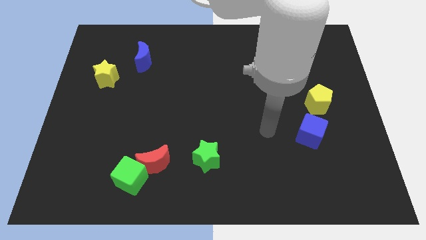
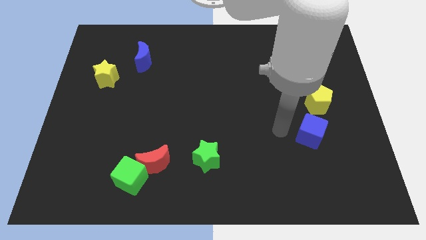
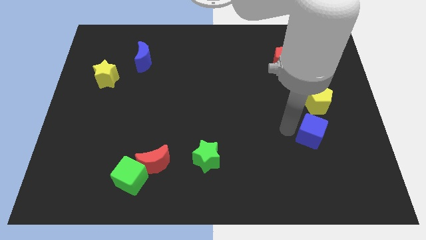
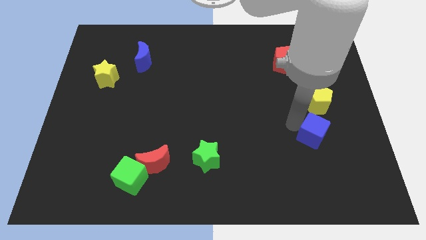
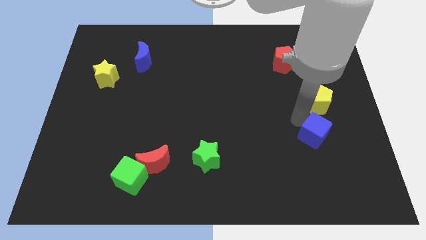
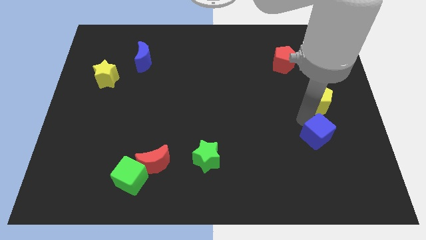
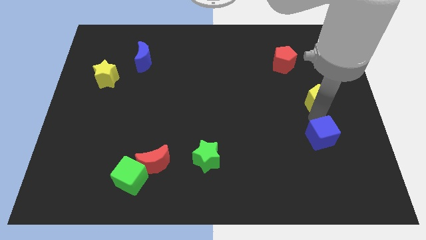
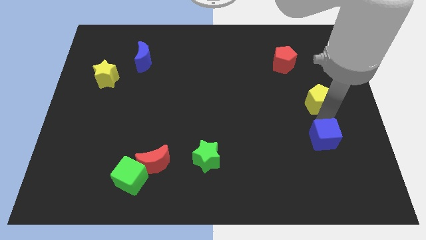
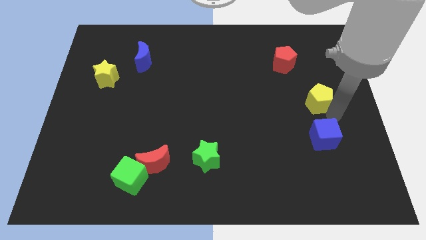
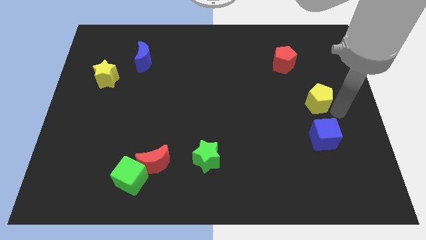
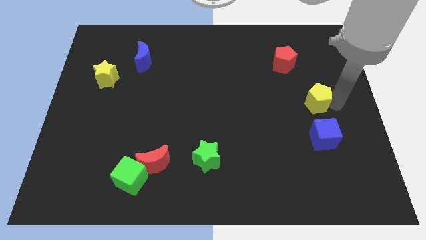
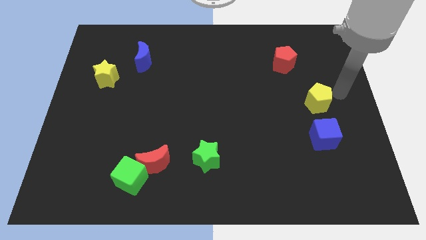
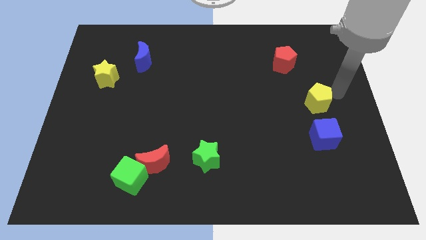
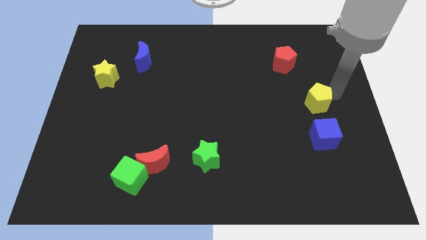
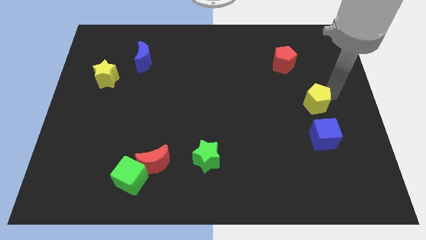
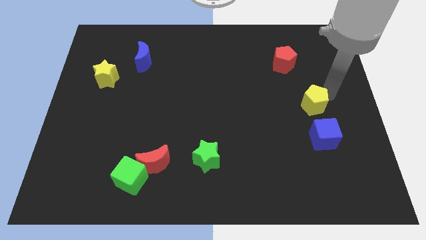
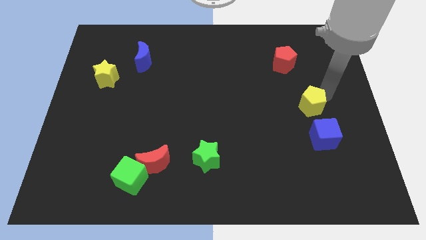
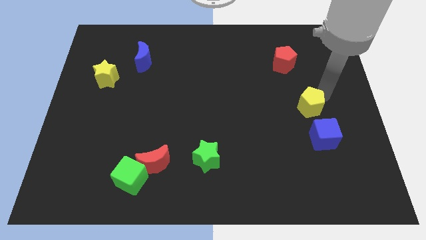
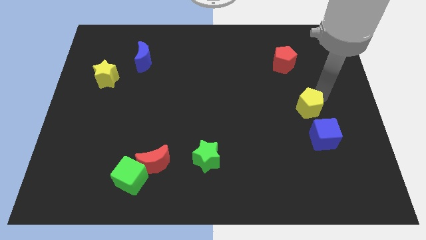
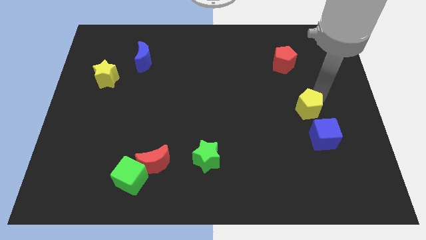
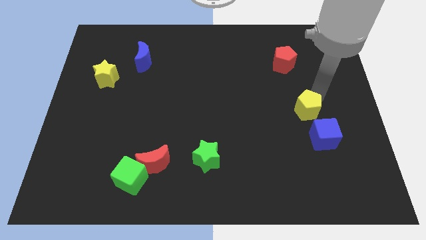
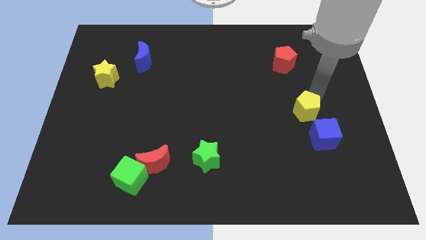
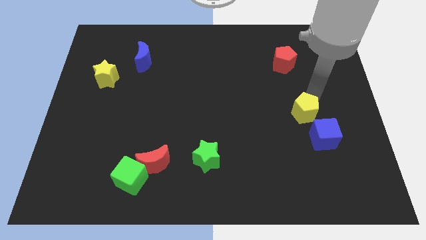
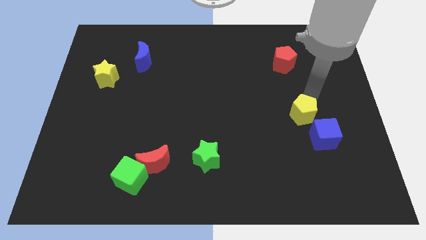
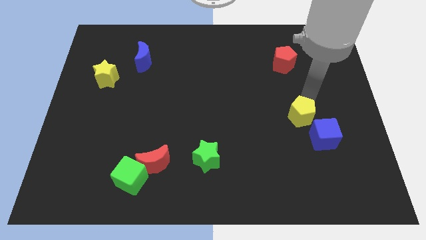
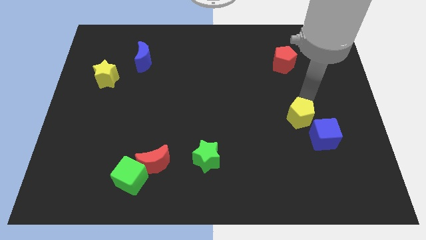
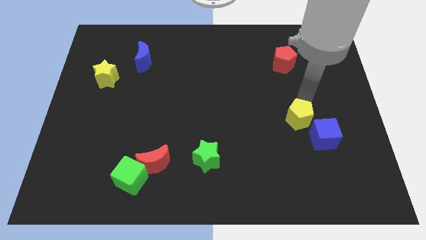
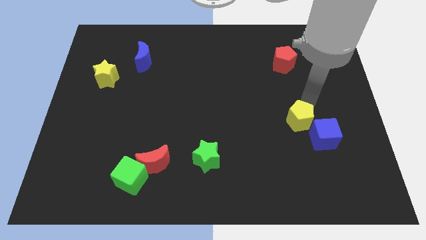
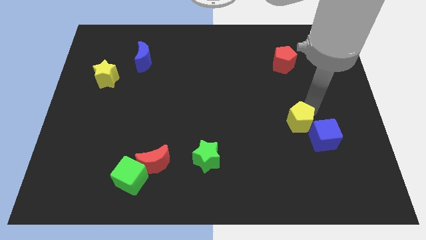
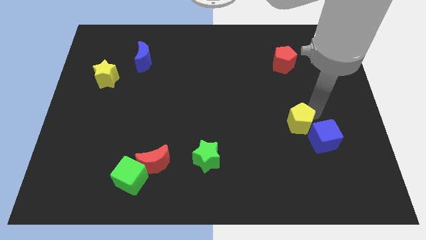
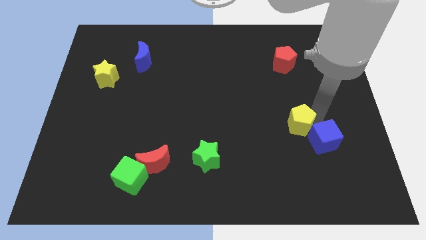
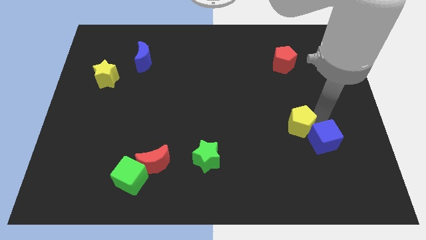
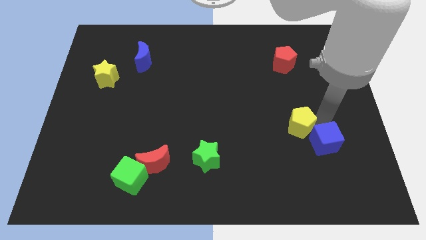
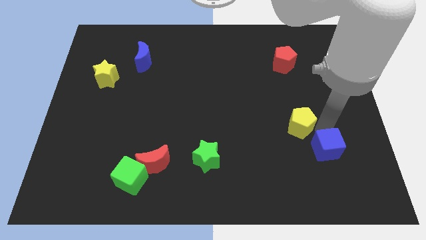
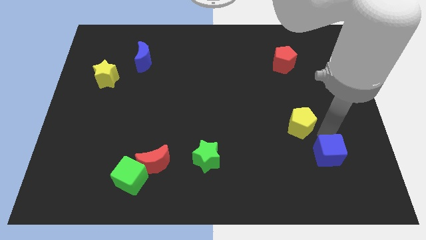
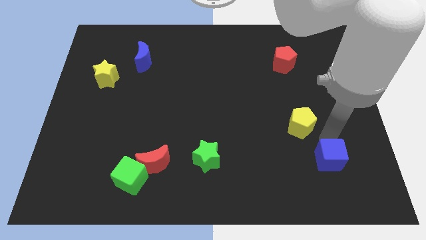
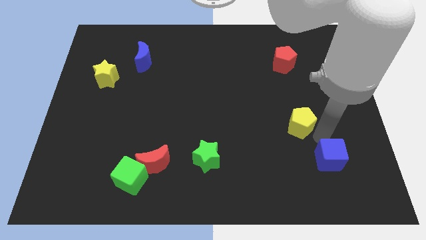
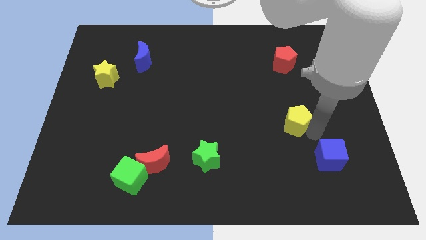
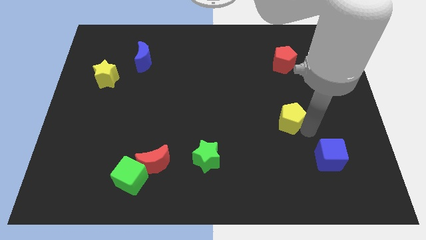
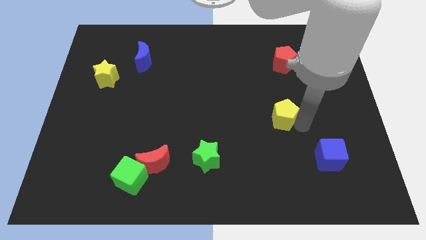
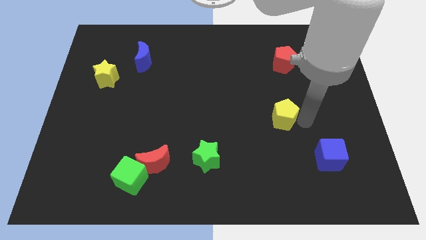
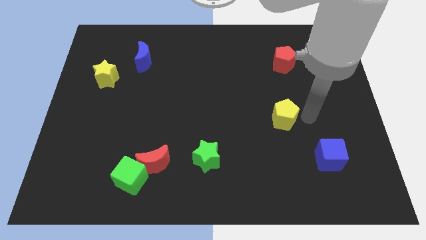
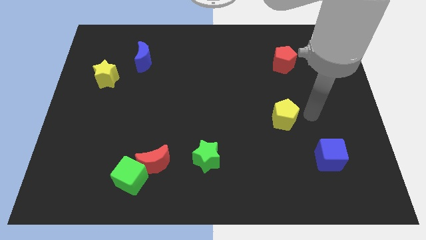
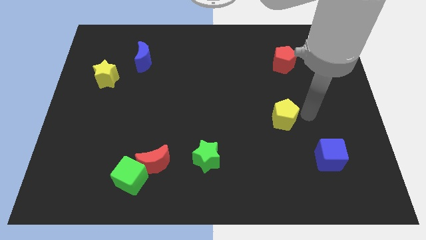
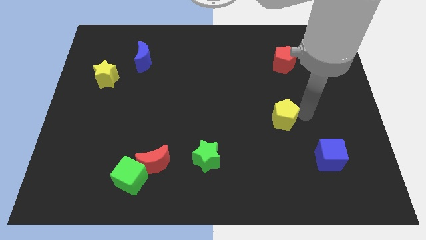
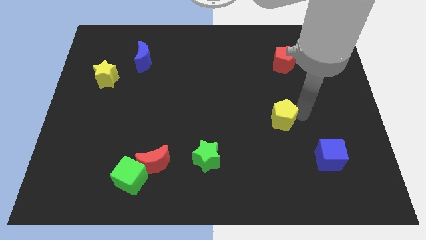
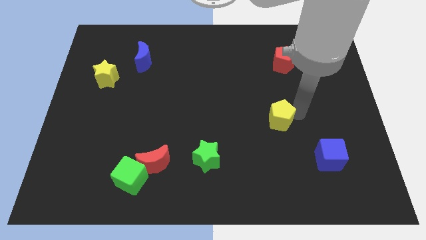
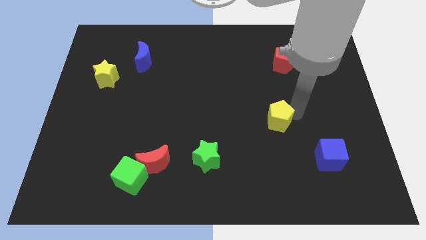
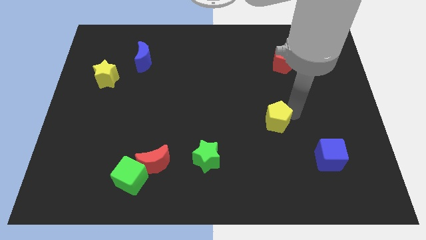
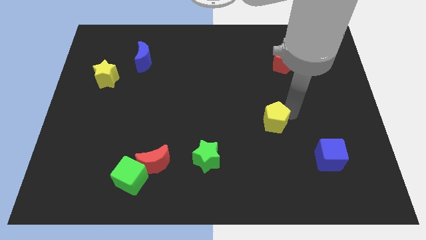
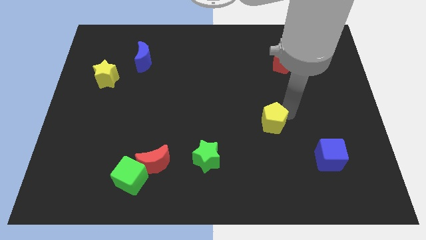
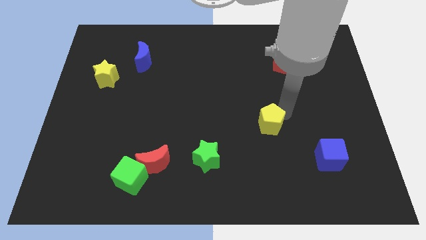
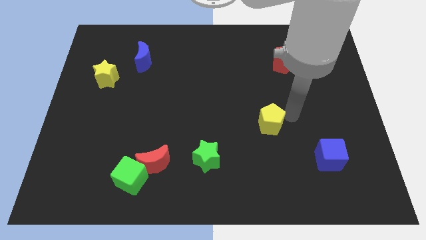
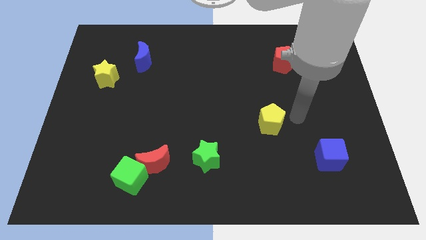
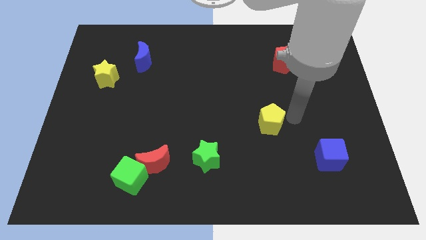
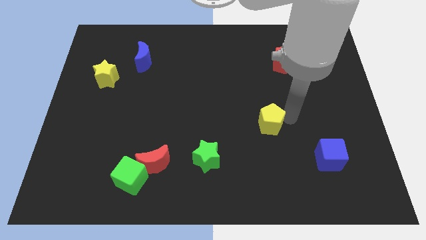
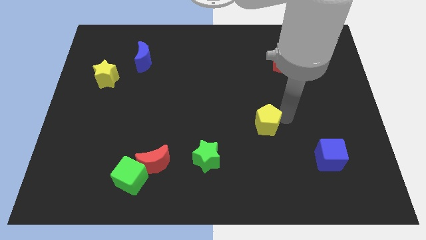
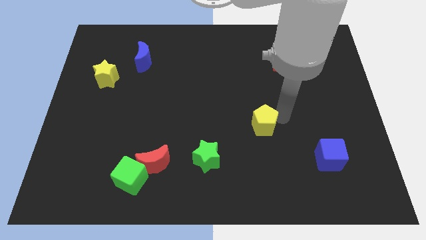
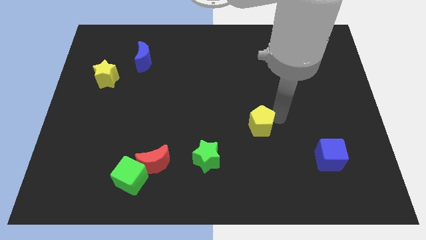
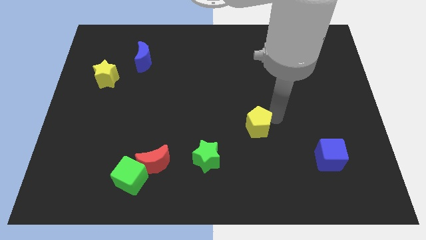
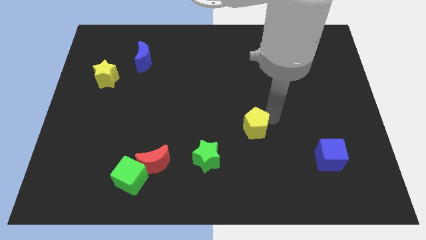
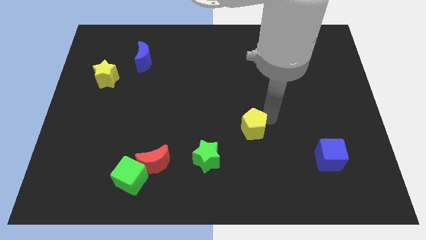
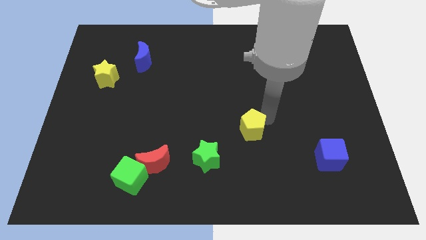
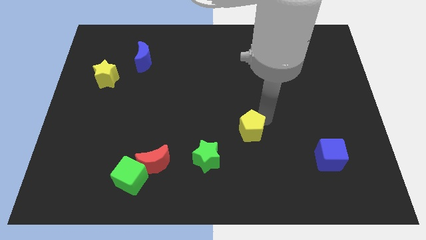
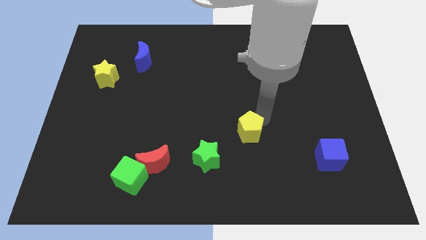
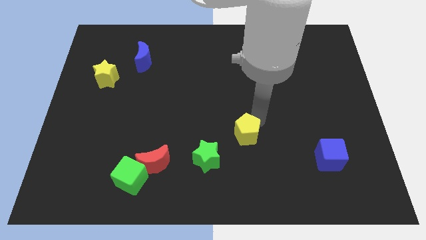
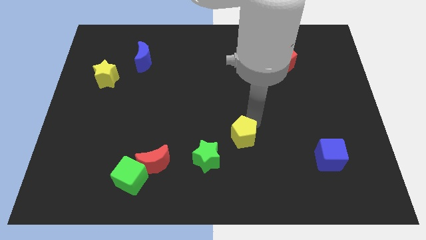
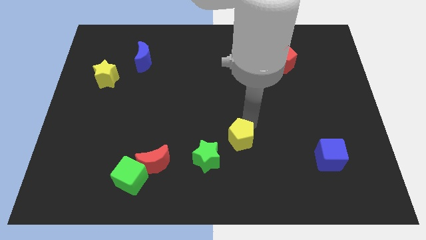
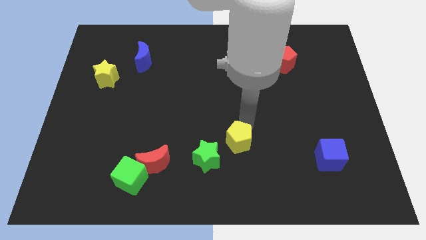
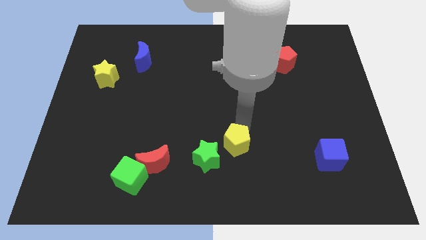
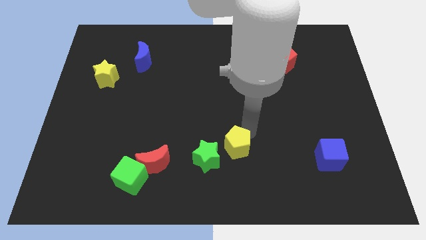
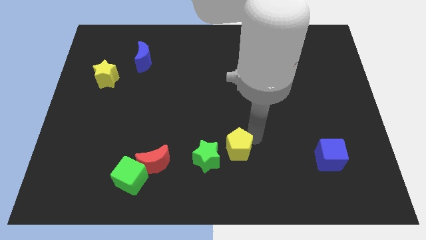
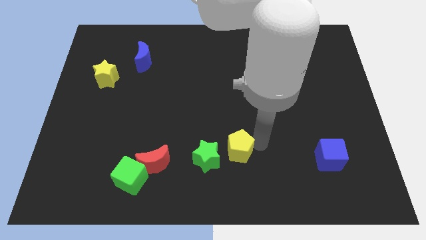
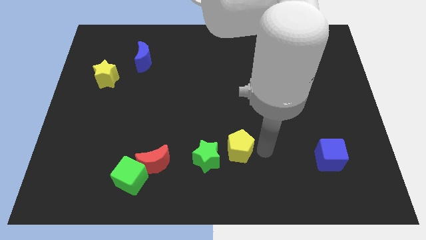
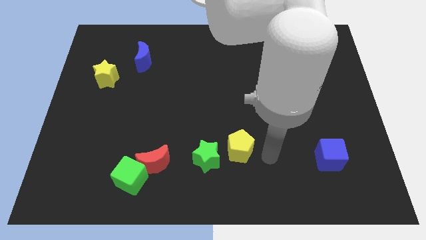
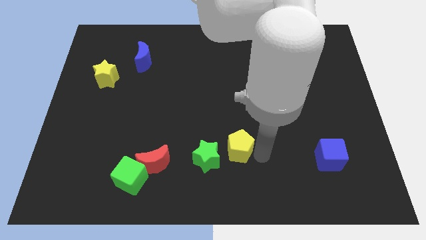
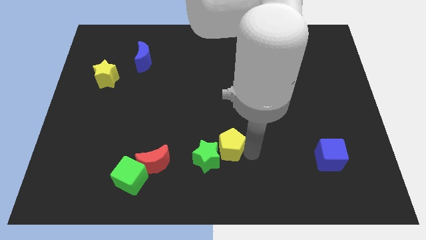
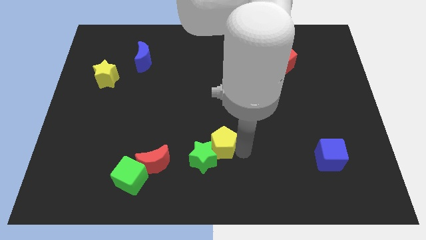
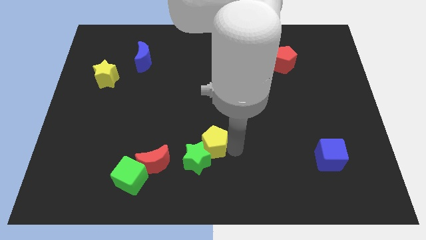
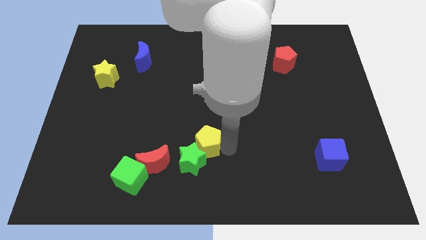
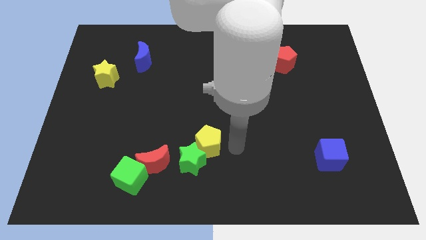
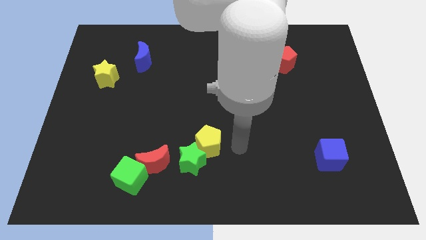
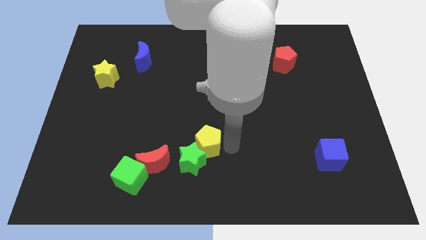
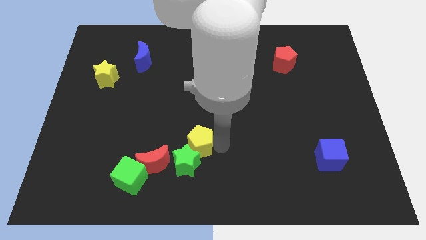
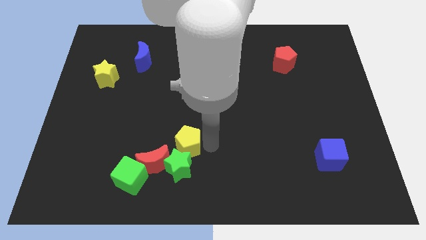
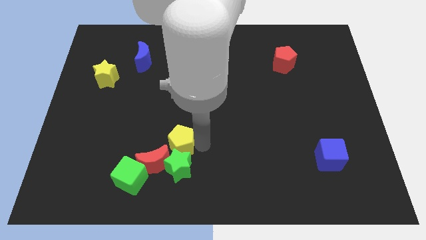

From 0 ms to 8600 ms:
put the yellow pentagon to the top left of the green star
